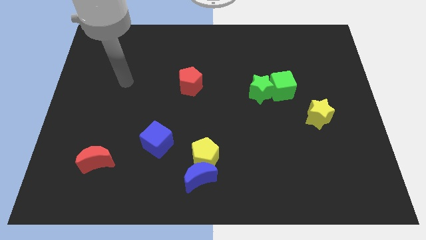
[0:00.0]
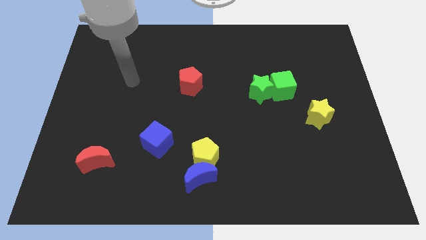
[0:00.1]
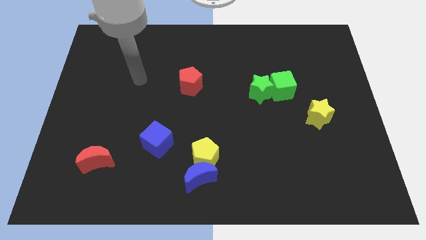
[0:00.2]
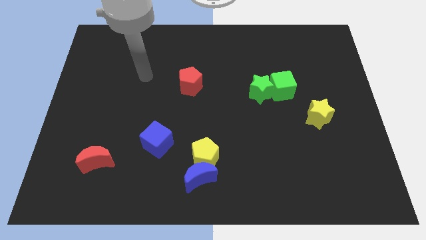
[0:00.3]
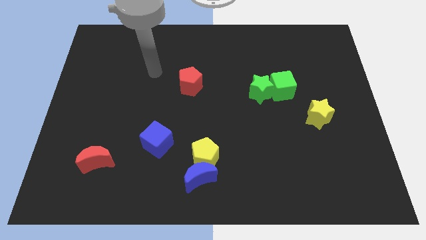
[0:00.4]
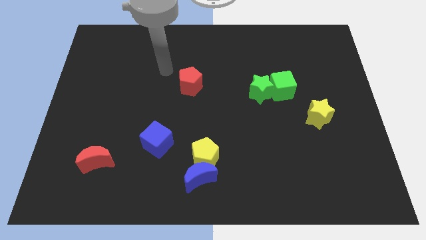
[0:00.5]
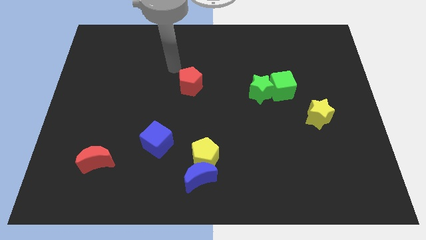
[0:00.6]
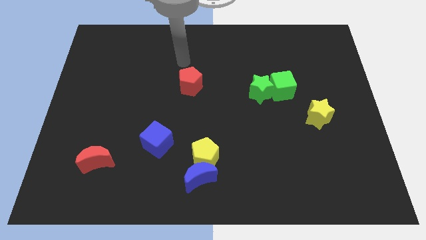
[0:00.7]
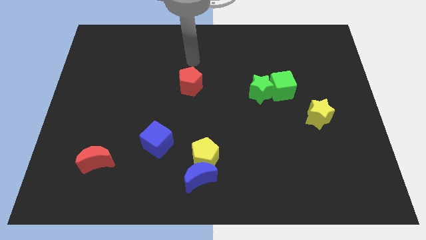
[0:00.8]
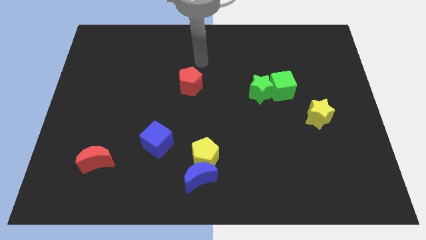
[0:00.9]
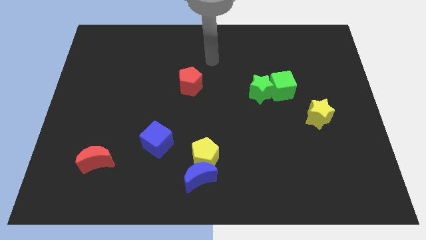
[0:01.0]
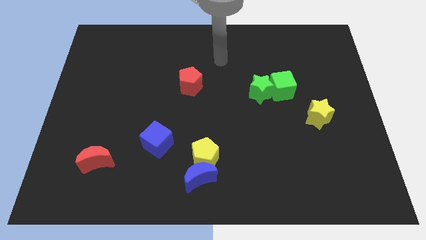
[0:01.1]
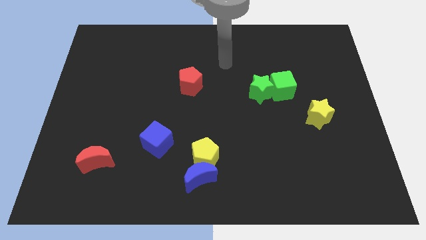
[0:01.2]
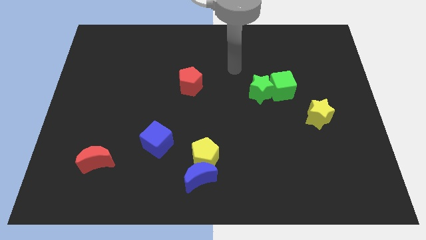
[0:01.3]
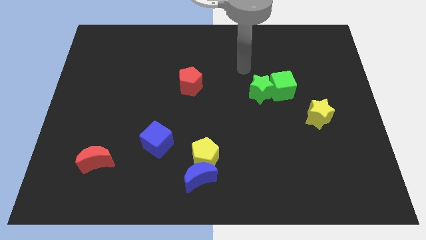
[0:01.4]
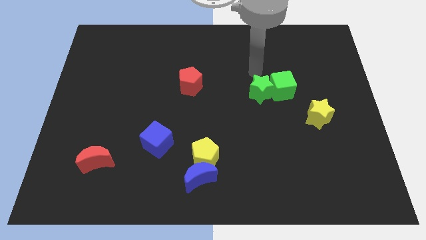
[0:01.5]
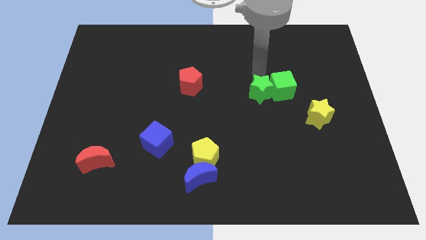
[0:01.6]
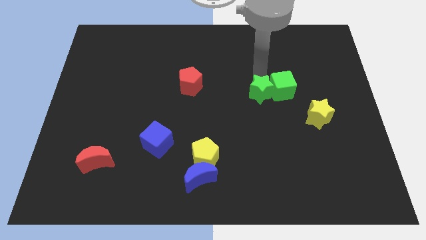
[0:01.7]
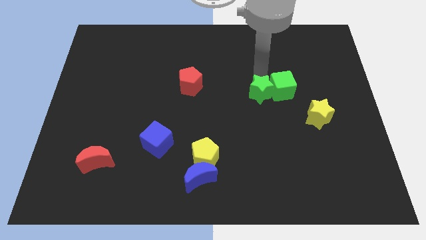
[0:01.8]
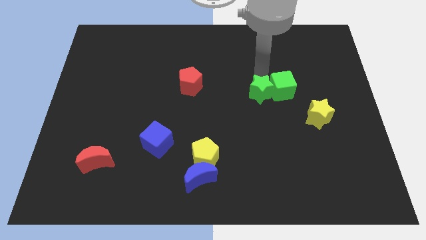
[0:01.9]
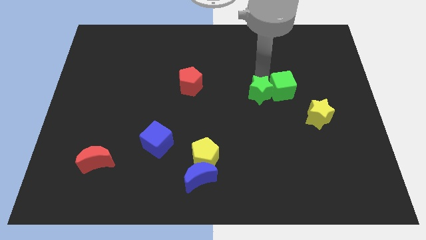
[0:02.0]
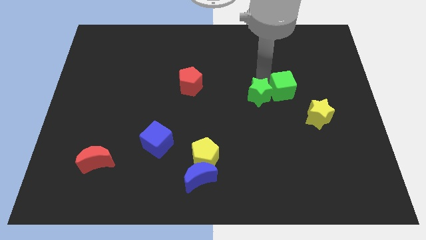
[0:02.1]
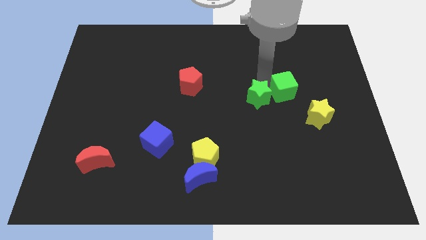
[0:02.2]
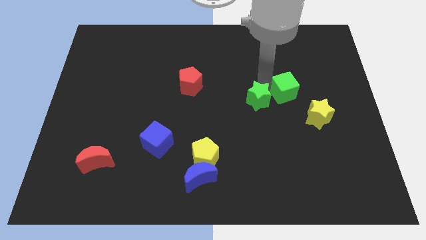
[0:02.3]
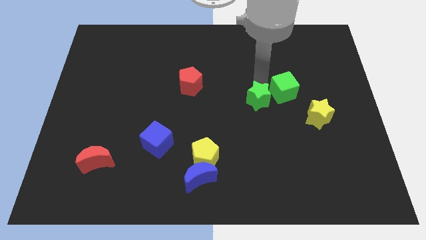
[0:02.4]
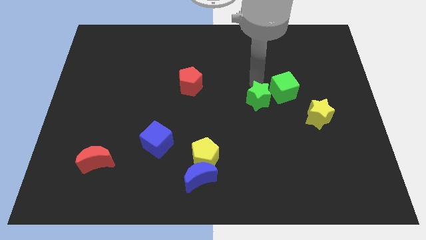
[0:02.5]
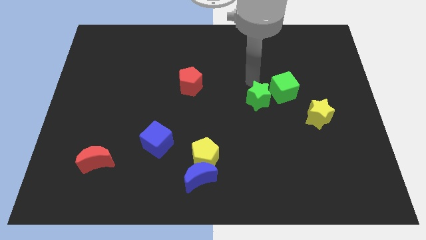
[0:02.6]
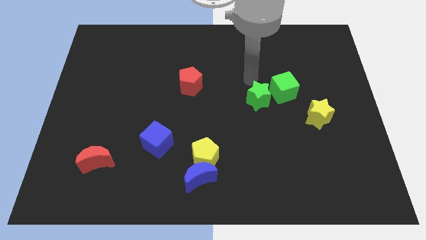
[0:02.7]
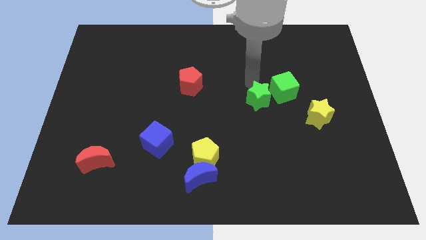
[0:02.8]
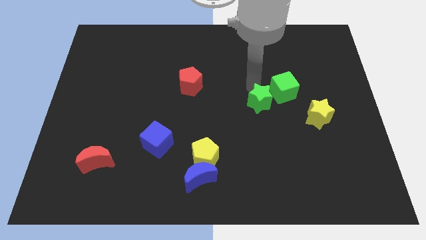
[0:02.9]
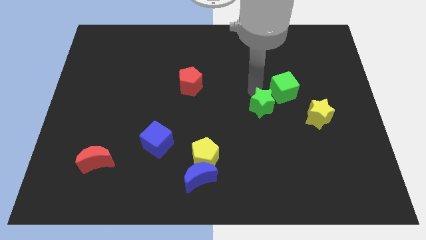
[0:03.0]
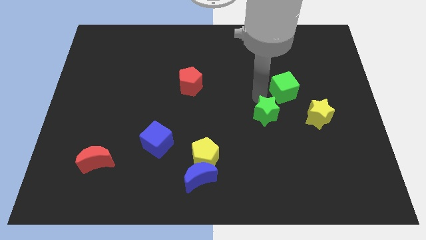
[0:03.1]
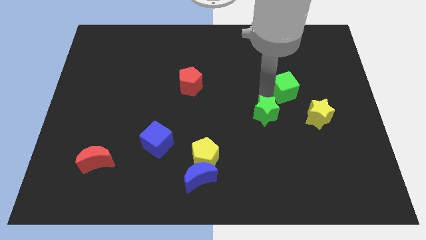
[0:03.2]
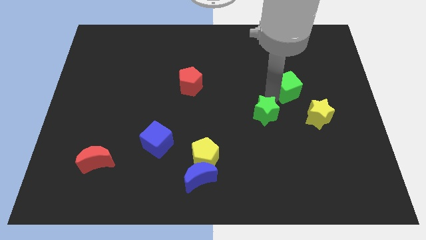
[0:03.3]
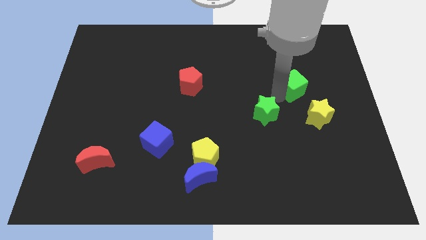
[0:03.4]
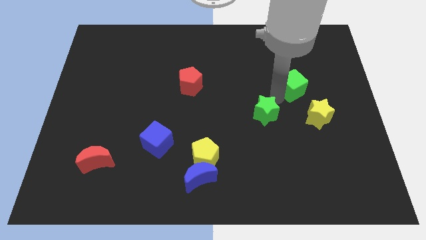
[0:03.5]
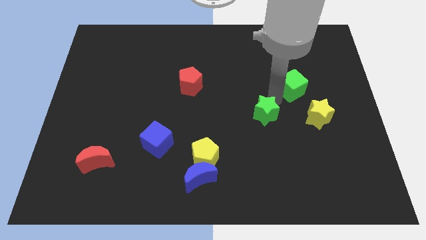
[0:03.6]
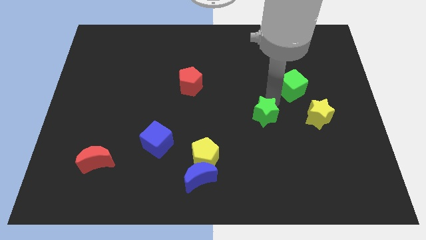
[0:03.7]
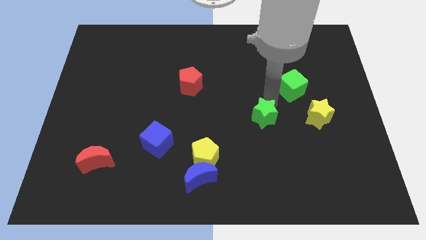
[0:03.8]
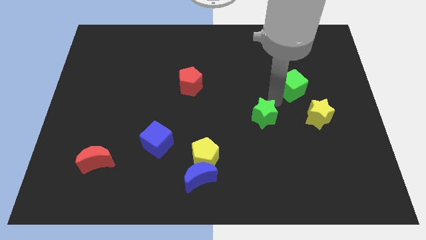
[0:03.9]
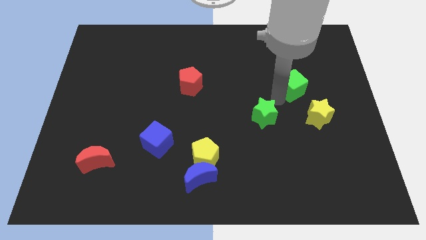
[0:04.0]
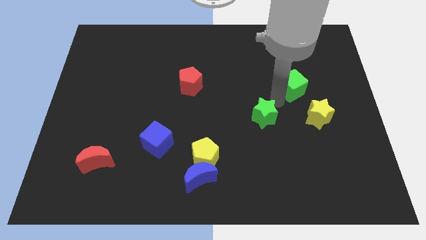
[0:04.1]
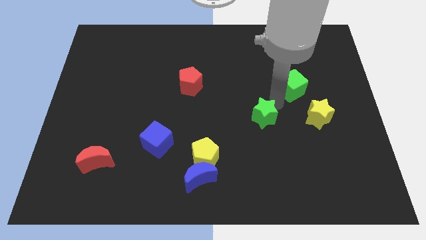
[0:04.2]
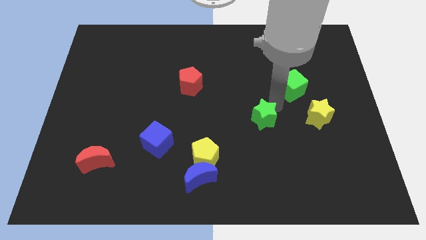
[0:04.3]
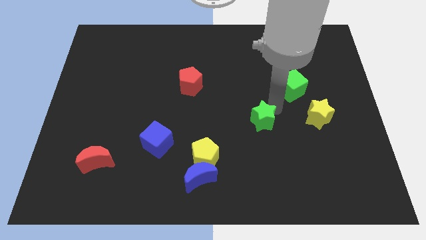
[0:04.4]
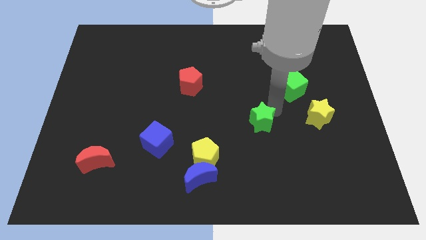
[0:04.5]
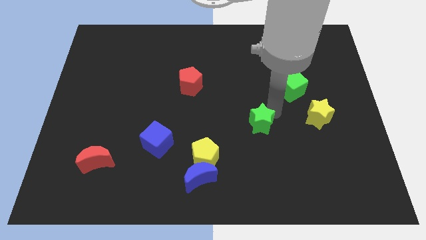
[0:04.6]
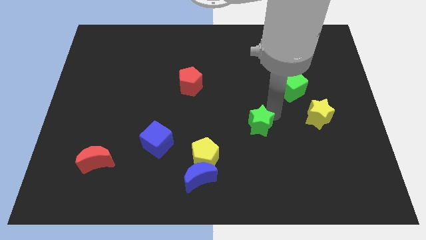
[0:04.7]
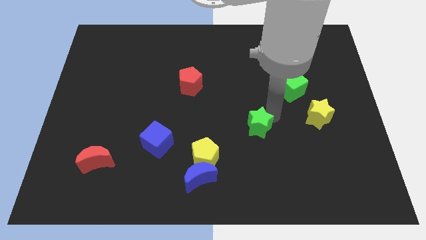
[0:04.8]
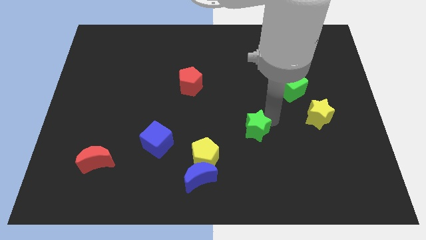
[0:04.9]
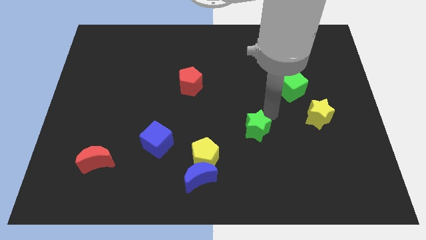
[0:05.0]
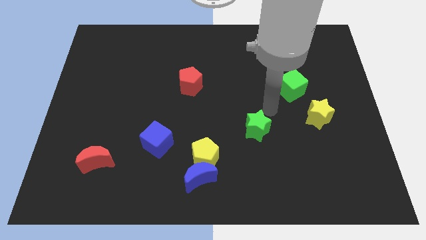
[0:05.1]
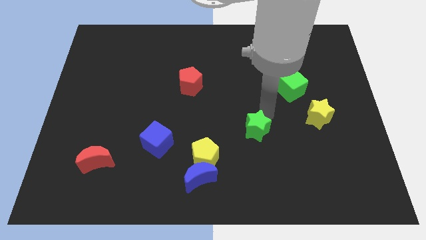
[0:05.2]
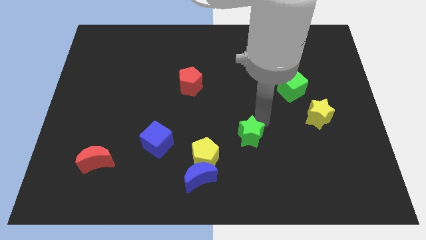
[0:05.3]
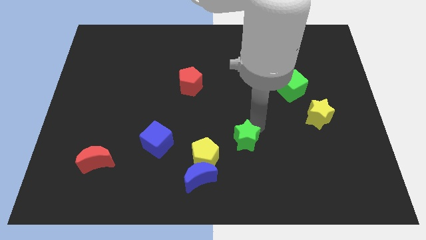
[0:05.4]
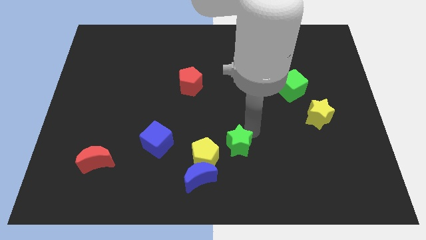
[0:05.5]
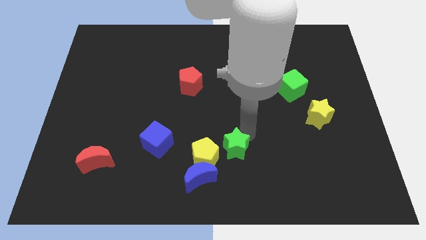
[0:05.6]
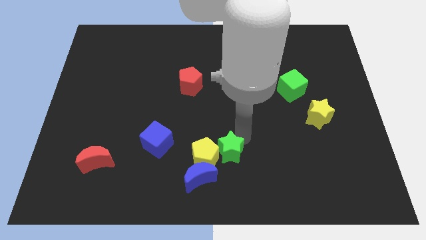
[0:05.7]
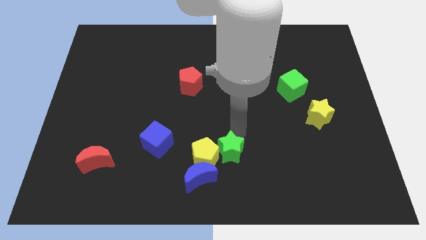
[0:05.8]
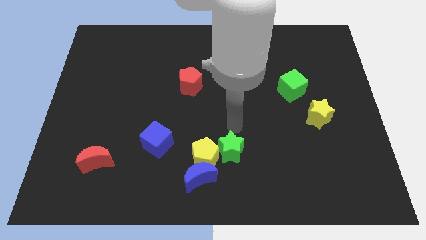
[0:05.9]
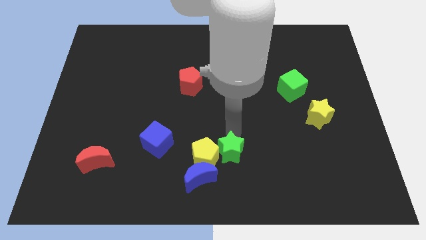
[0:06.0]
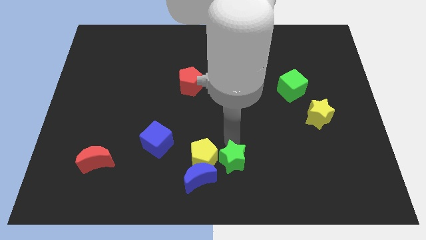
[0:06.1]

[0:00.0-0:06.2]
slide the green star to the bottom
